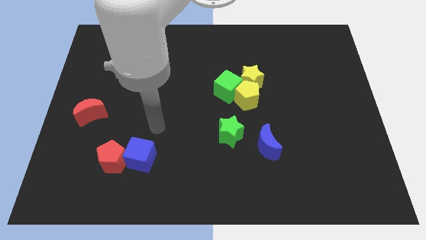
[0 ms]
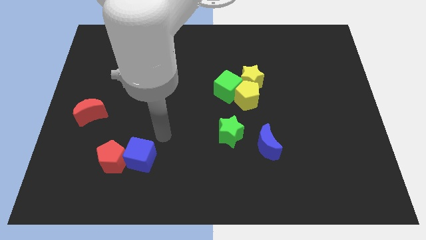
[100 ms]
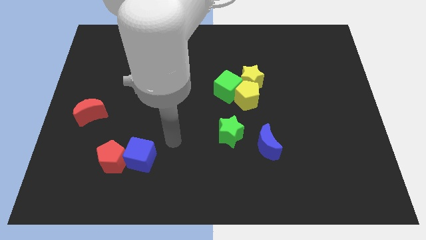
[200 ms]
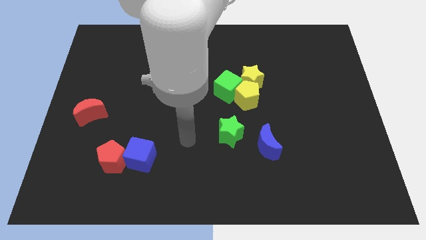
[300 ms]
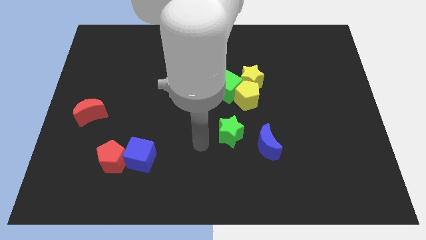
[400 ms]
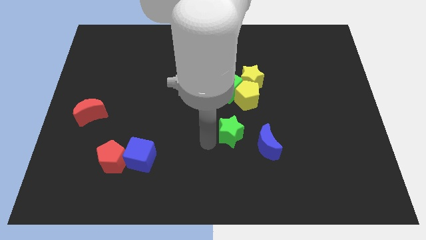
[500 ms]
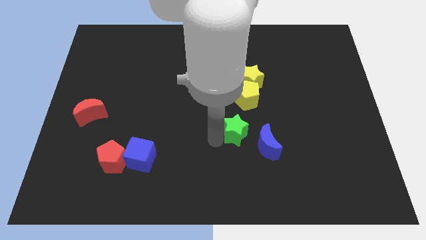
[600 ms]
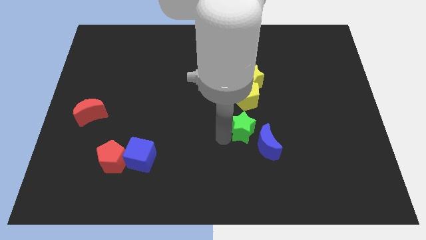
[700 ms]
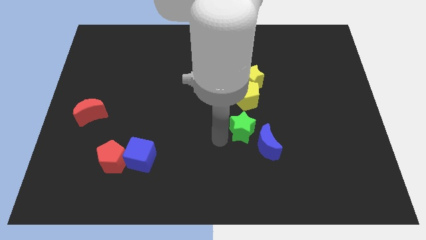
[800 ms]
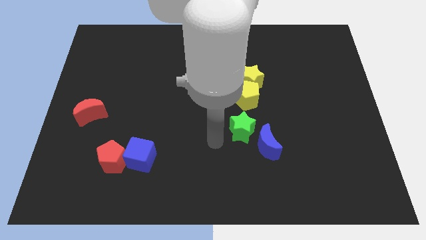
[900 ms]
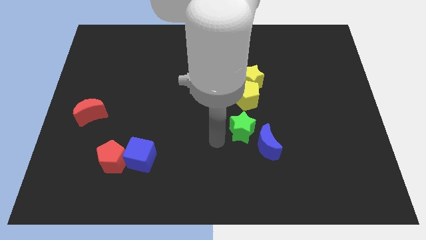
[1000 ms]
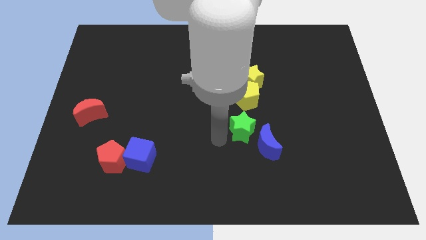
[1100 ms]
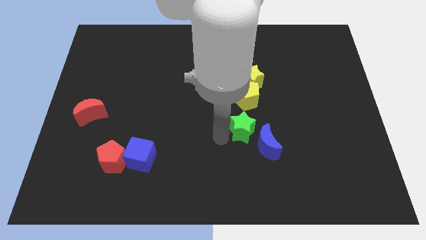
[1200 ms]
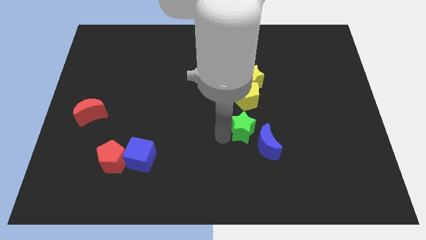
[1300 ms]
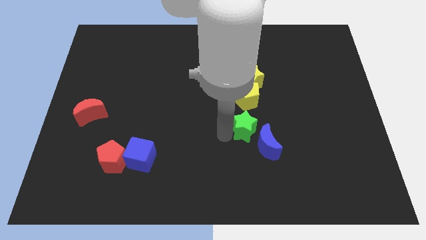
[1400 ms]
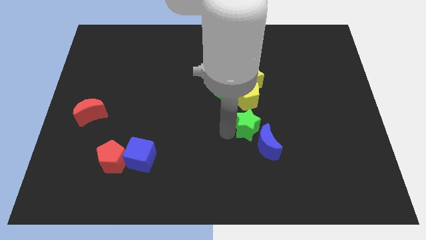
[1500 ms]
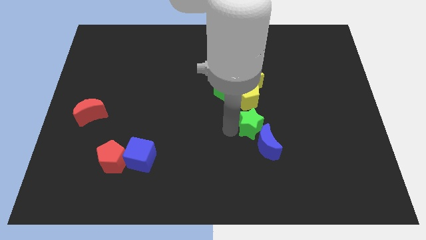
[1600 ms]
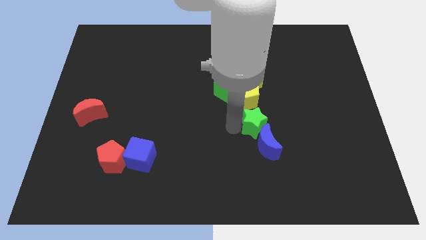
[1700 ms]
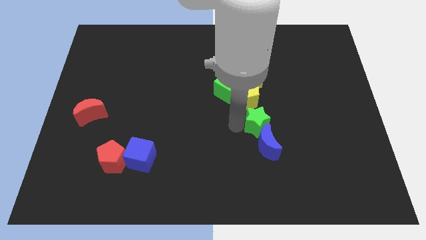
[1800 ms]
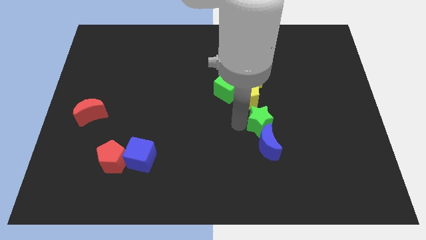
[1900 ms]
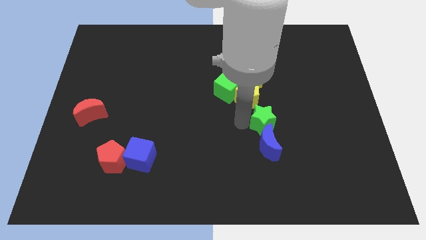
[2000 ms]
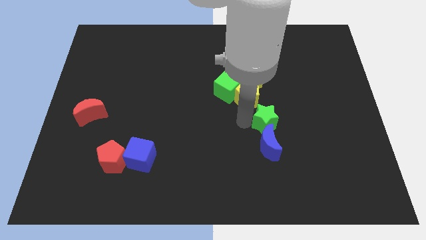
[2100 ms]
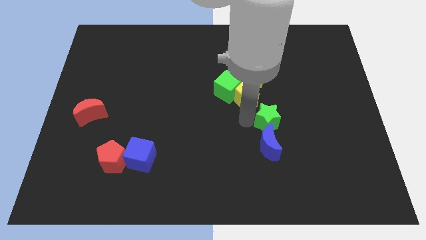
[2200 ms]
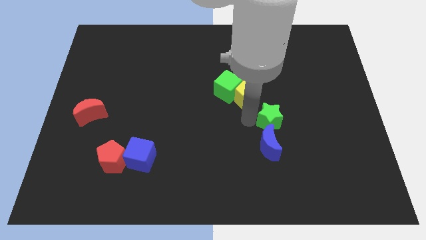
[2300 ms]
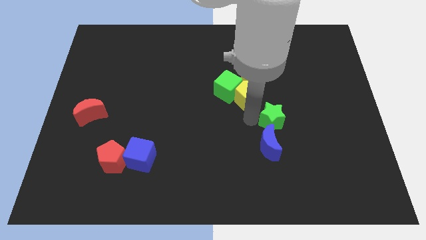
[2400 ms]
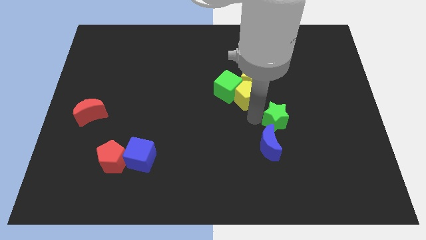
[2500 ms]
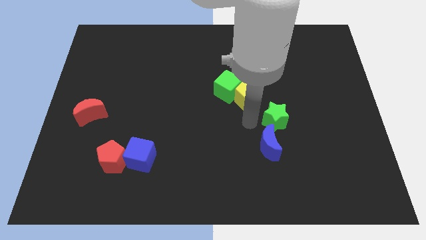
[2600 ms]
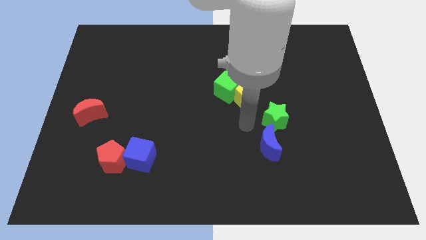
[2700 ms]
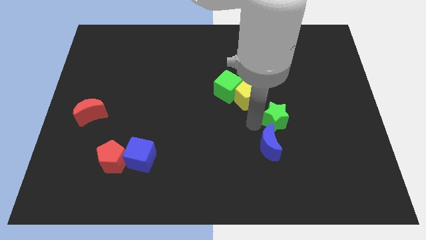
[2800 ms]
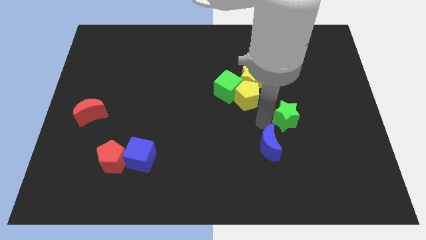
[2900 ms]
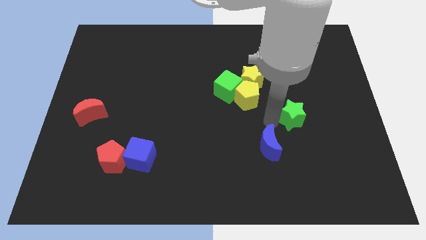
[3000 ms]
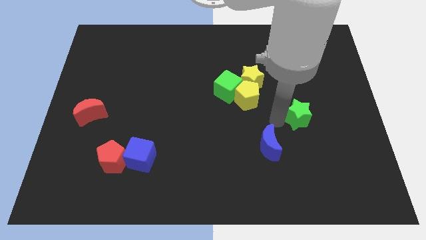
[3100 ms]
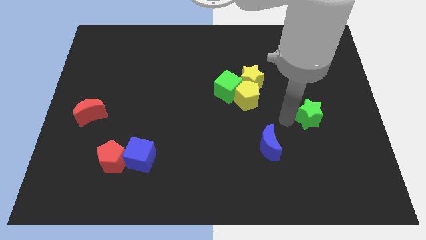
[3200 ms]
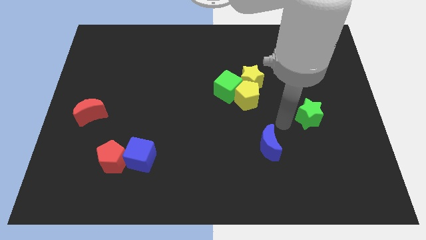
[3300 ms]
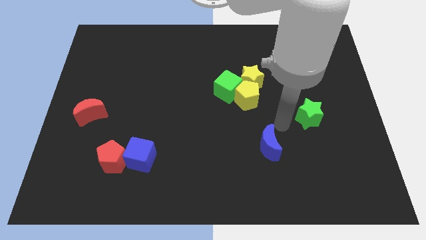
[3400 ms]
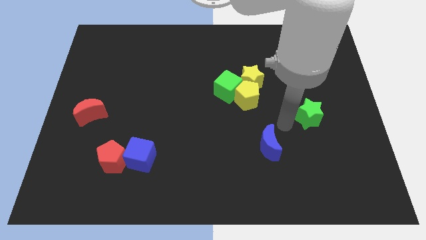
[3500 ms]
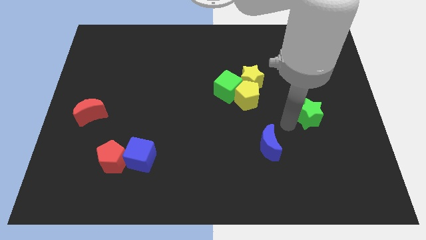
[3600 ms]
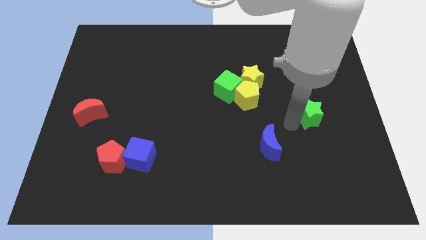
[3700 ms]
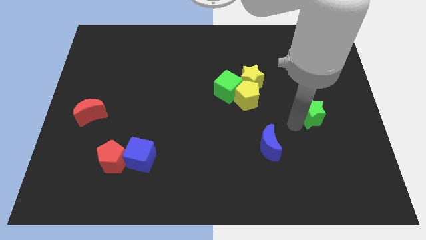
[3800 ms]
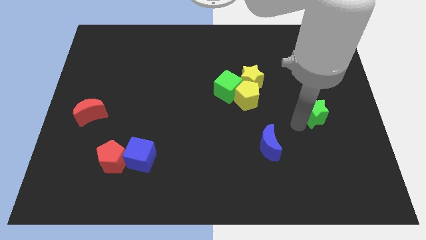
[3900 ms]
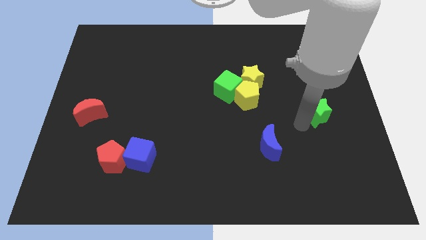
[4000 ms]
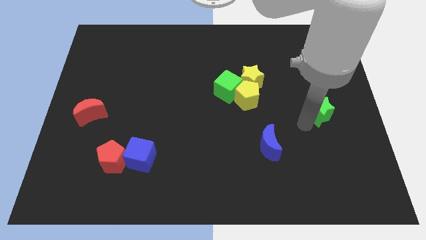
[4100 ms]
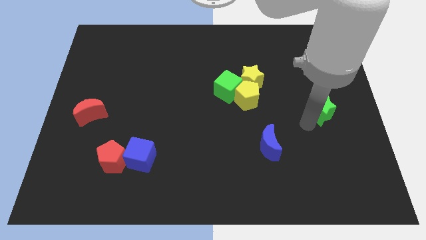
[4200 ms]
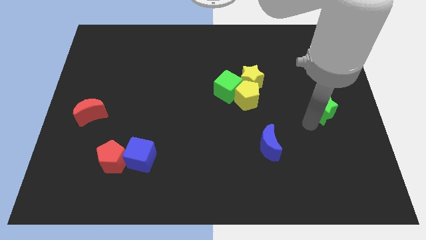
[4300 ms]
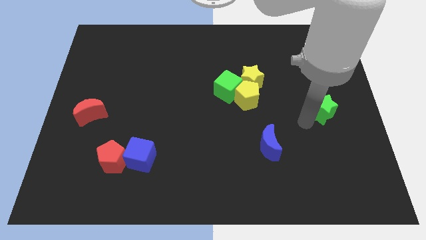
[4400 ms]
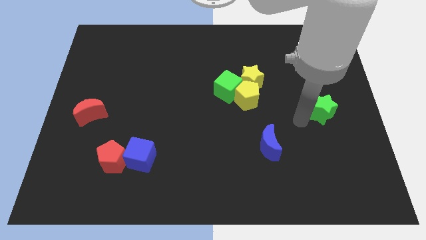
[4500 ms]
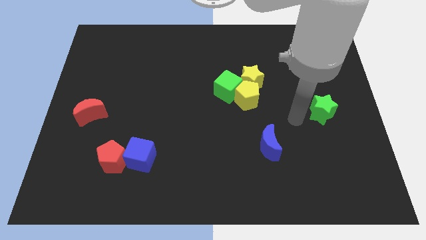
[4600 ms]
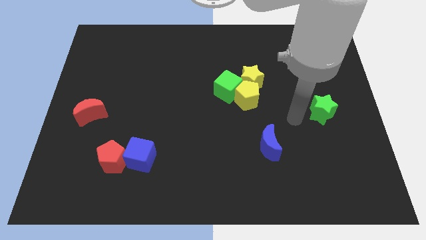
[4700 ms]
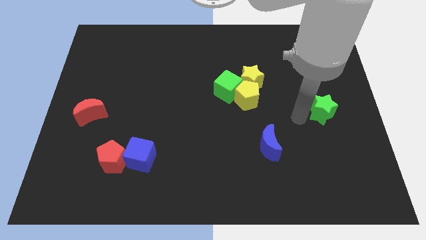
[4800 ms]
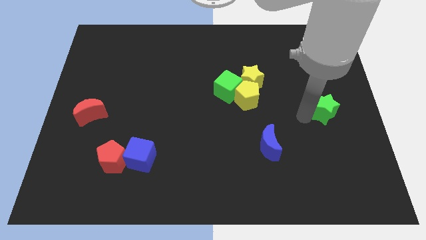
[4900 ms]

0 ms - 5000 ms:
put the green star to the center right

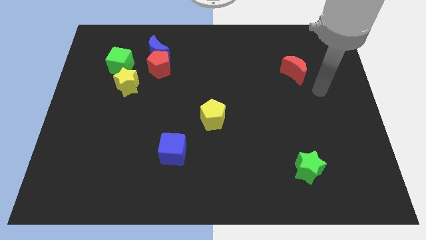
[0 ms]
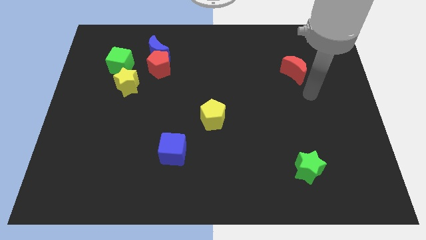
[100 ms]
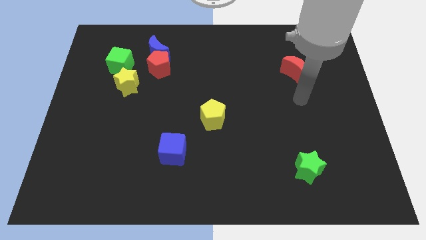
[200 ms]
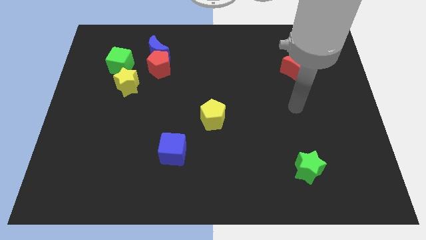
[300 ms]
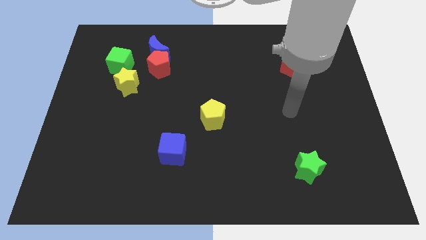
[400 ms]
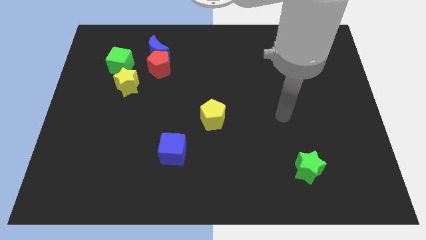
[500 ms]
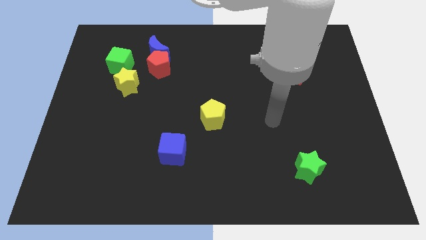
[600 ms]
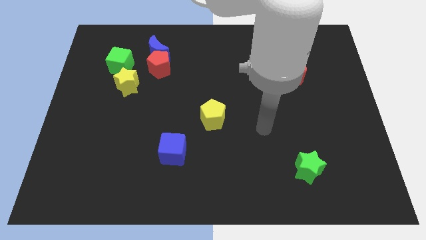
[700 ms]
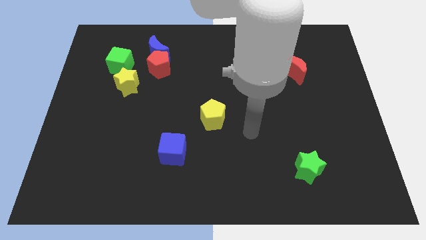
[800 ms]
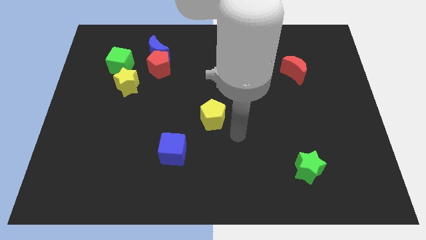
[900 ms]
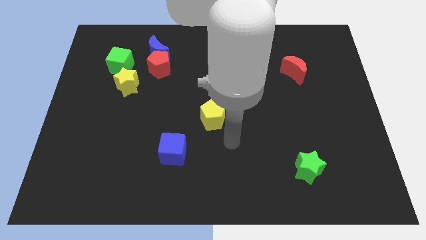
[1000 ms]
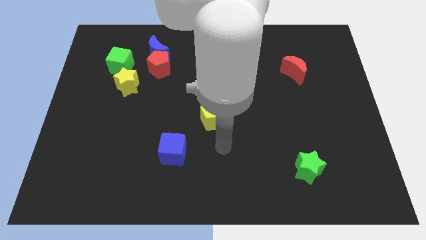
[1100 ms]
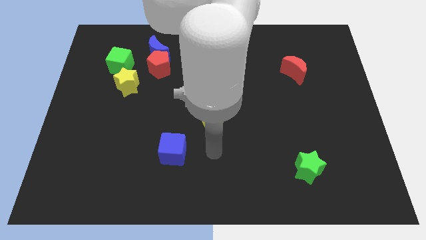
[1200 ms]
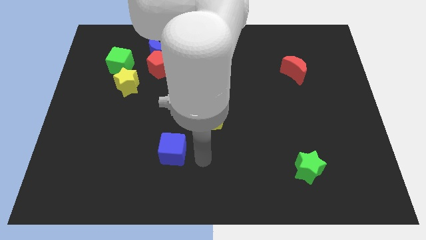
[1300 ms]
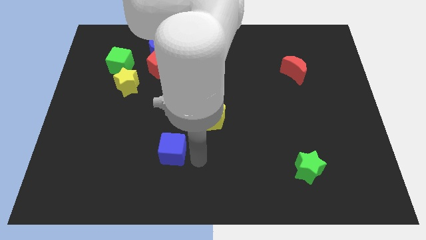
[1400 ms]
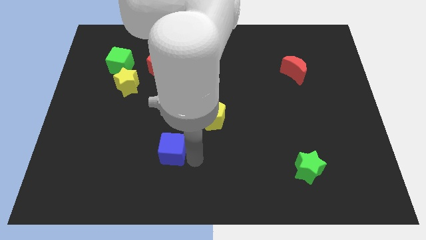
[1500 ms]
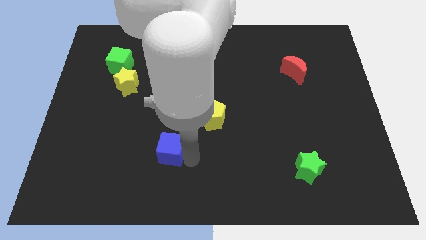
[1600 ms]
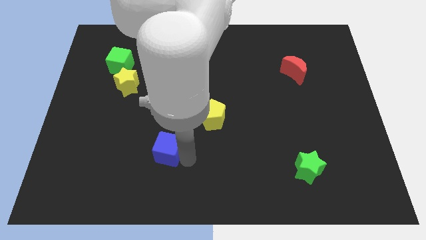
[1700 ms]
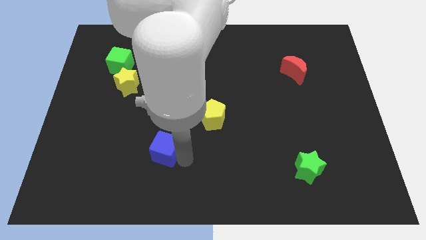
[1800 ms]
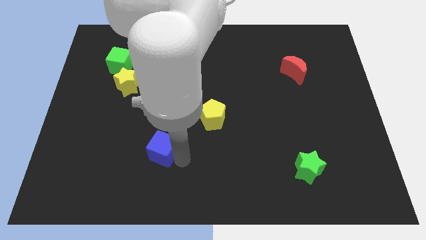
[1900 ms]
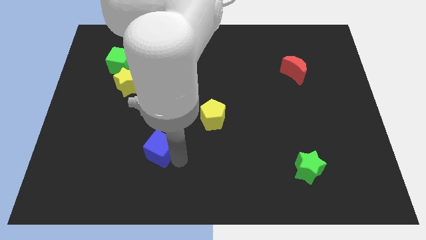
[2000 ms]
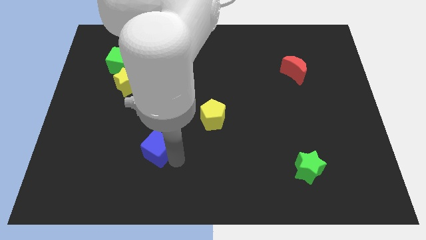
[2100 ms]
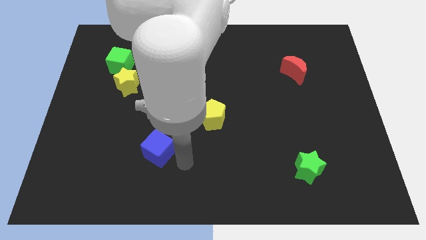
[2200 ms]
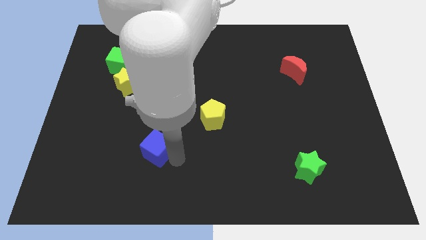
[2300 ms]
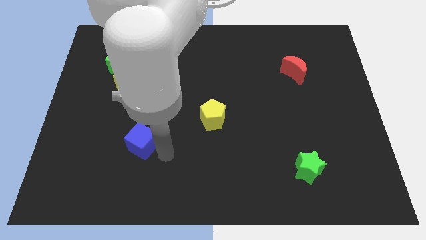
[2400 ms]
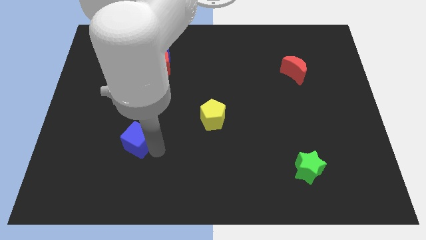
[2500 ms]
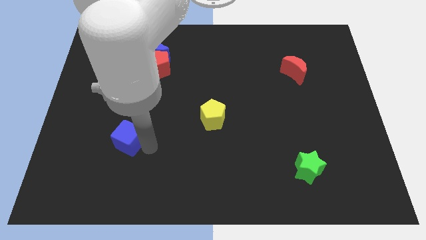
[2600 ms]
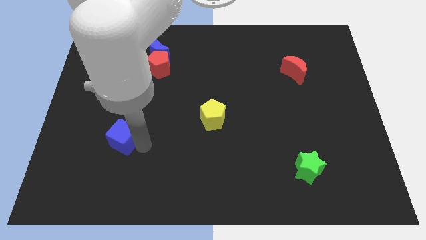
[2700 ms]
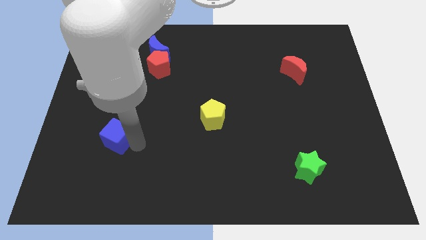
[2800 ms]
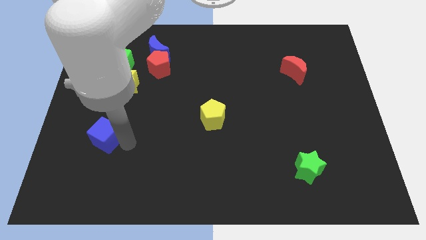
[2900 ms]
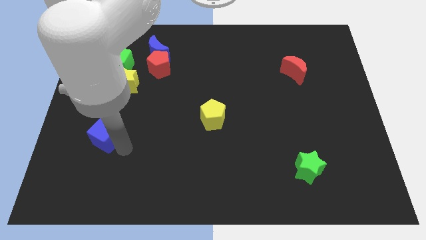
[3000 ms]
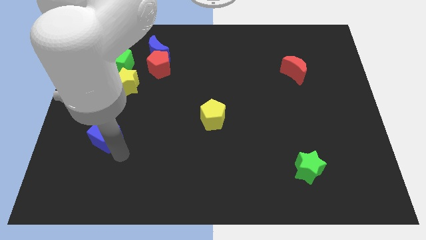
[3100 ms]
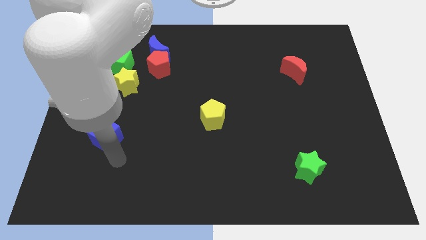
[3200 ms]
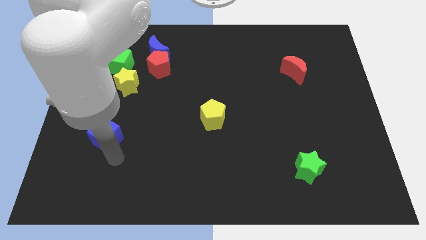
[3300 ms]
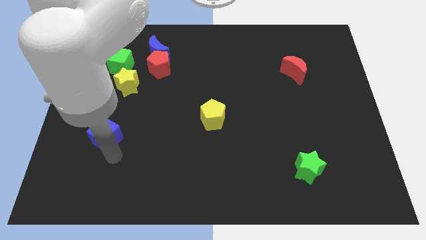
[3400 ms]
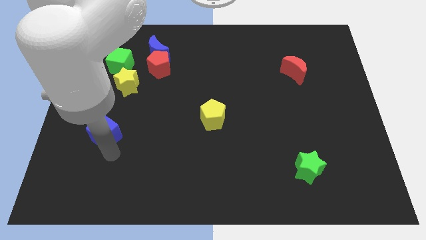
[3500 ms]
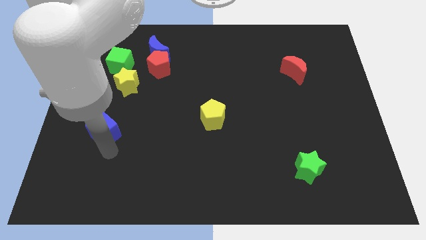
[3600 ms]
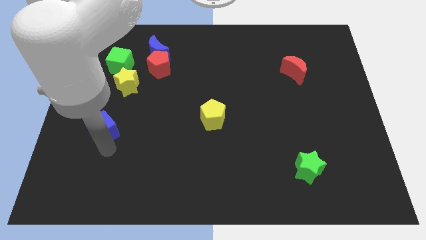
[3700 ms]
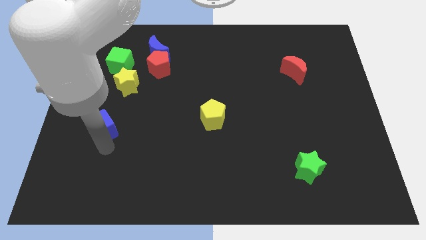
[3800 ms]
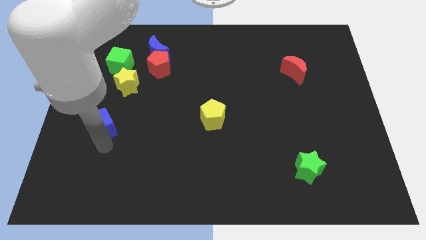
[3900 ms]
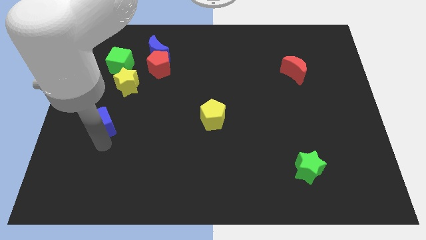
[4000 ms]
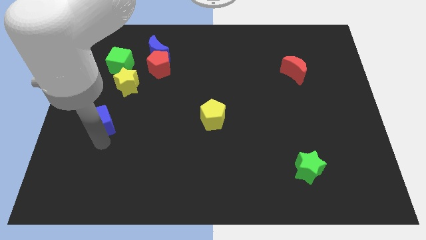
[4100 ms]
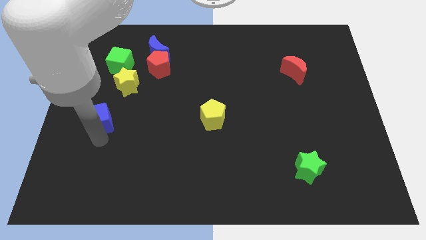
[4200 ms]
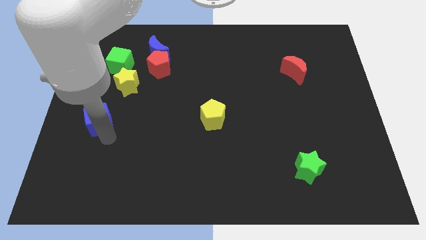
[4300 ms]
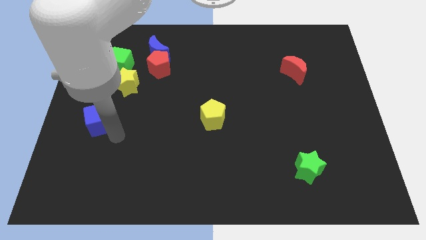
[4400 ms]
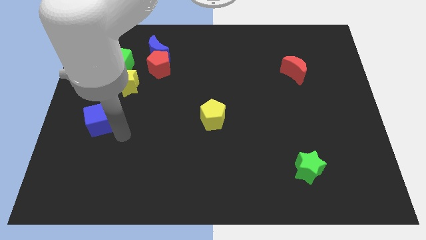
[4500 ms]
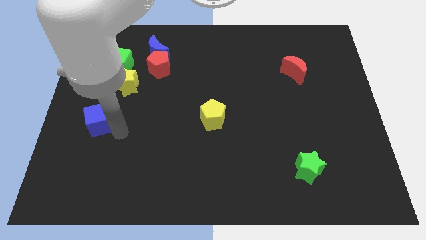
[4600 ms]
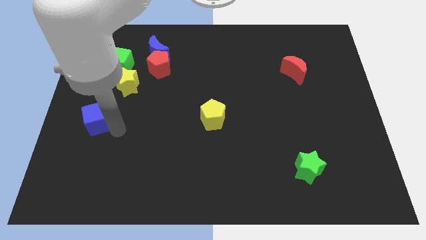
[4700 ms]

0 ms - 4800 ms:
push the blue cube to the left side of the board
